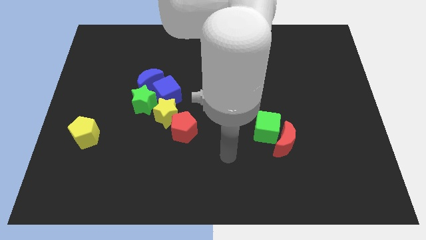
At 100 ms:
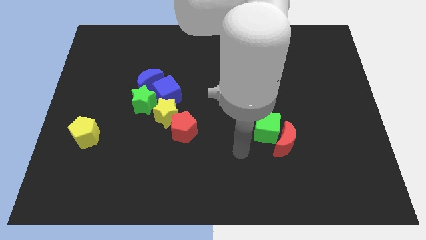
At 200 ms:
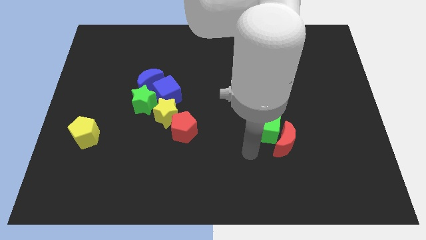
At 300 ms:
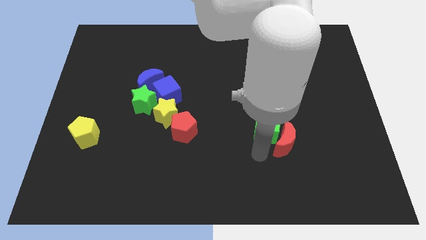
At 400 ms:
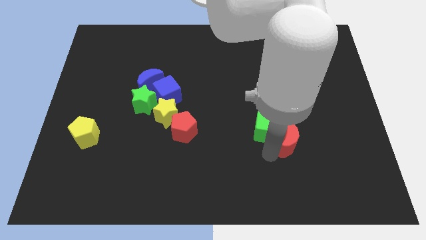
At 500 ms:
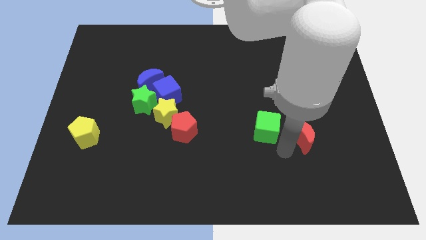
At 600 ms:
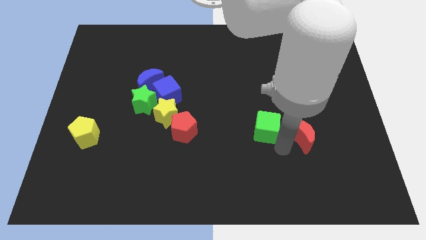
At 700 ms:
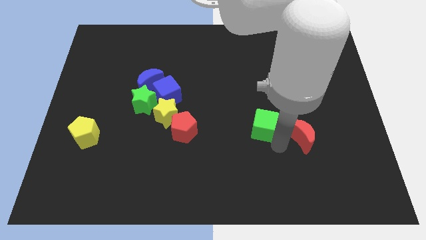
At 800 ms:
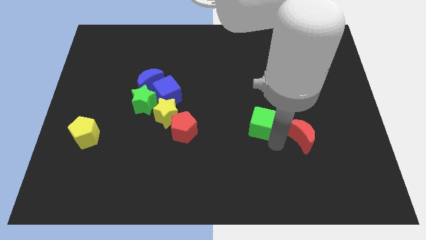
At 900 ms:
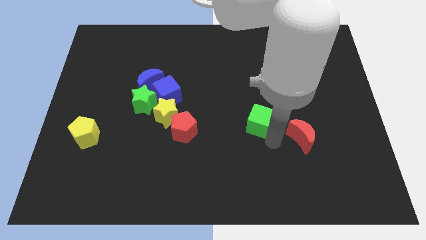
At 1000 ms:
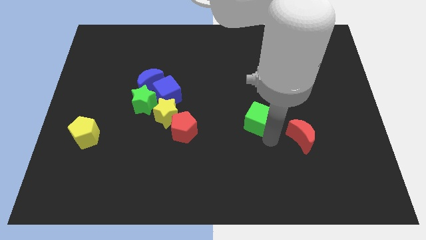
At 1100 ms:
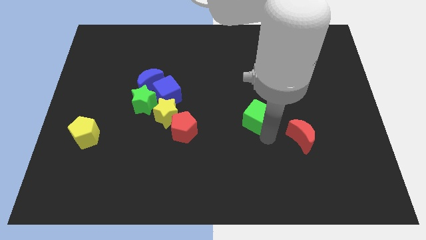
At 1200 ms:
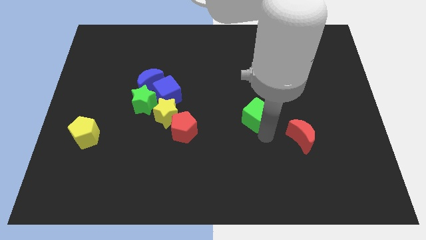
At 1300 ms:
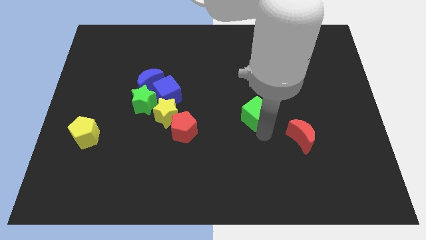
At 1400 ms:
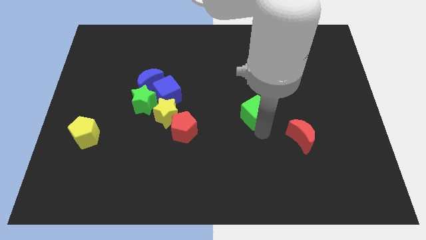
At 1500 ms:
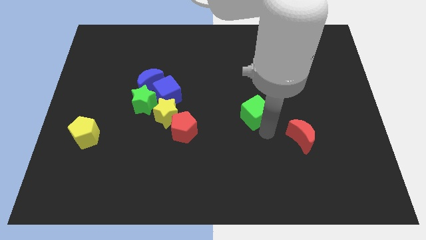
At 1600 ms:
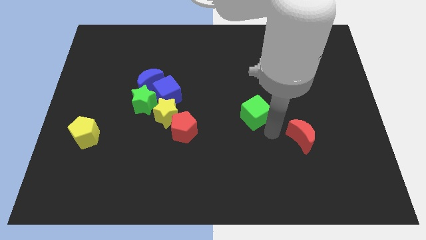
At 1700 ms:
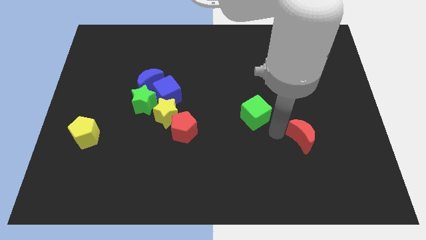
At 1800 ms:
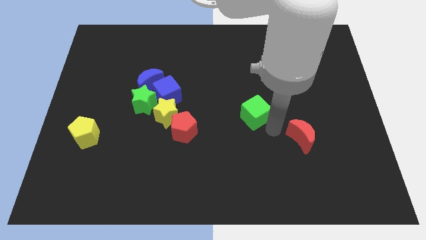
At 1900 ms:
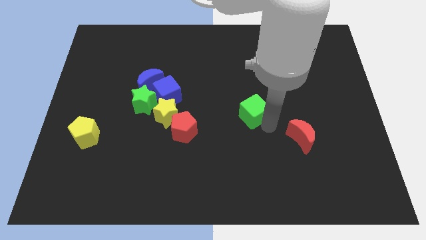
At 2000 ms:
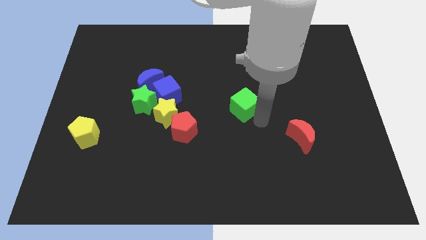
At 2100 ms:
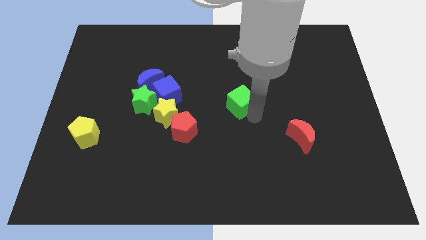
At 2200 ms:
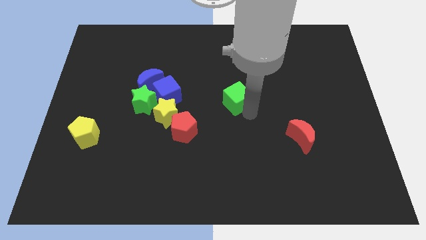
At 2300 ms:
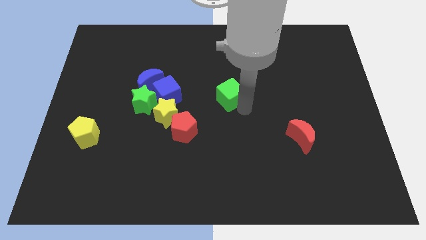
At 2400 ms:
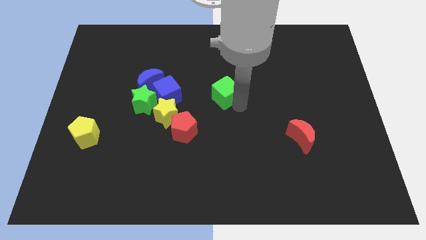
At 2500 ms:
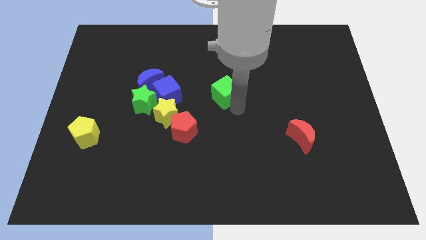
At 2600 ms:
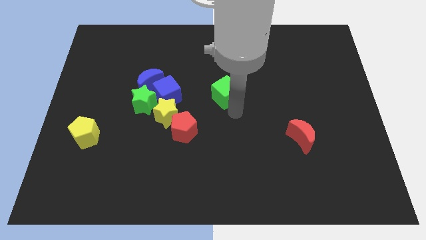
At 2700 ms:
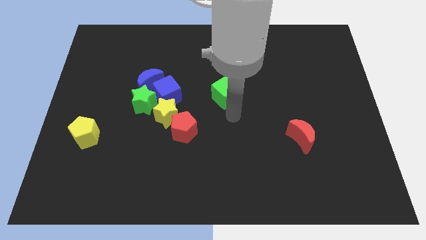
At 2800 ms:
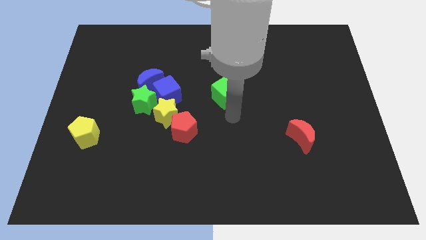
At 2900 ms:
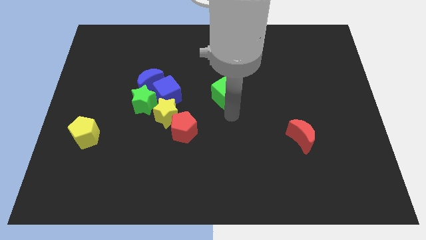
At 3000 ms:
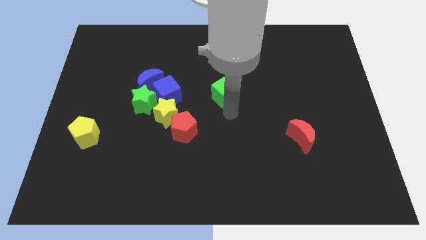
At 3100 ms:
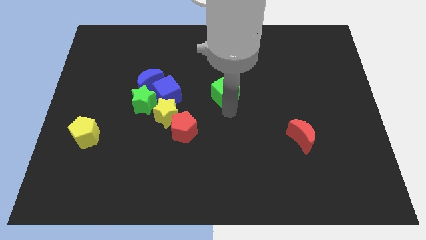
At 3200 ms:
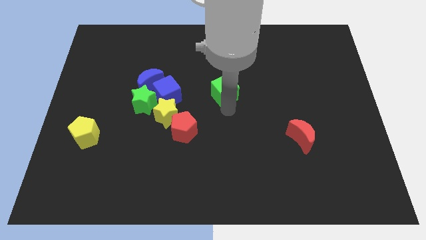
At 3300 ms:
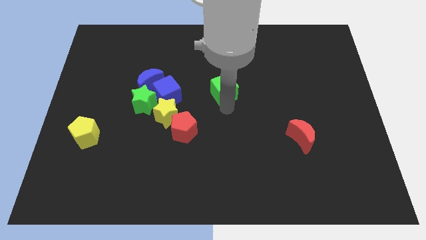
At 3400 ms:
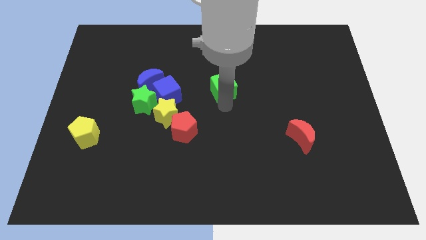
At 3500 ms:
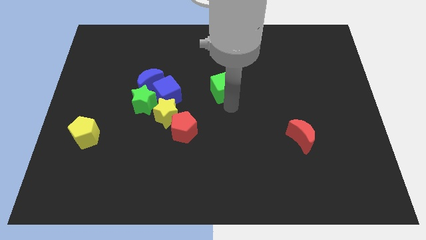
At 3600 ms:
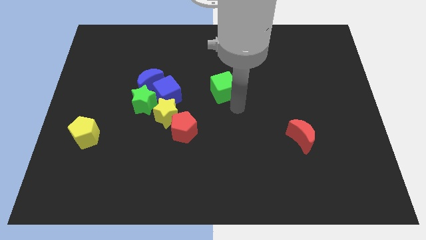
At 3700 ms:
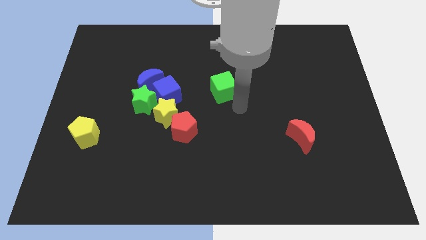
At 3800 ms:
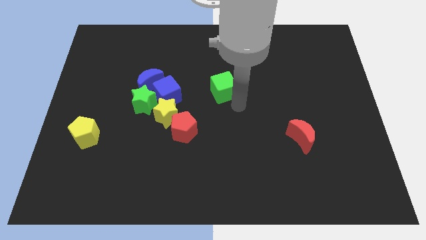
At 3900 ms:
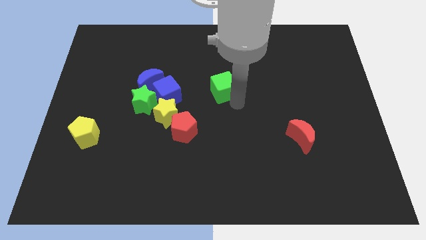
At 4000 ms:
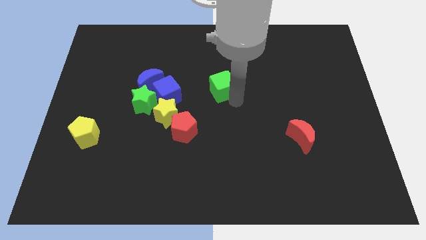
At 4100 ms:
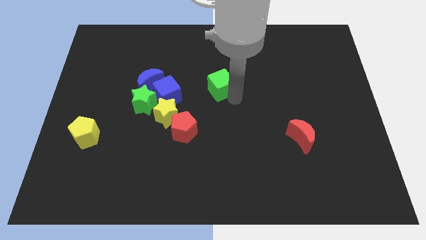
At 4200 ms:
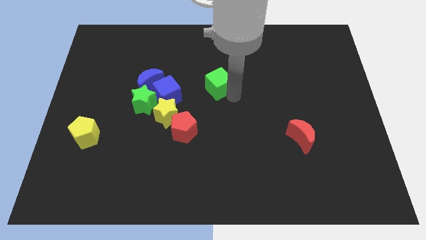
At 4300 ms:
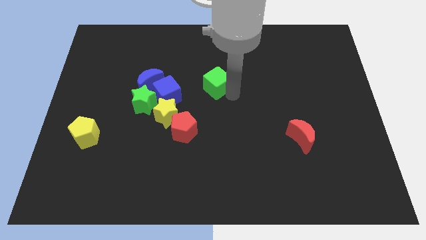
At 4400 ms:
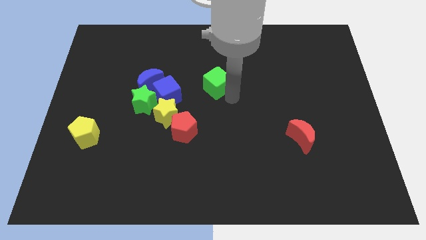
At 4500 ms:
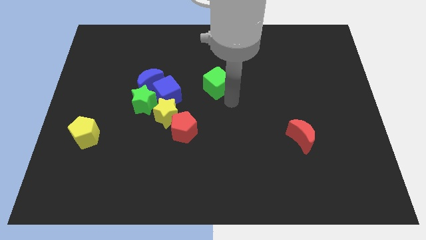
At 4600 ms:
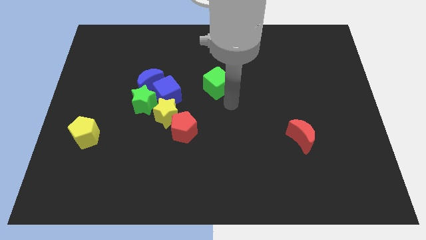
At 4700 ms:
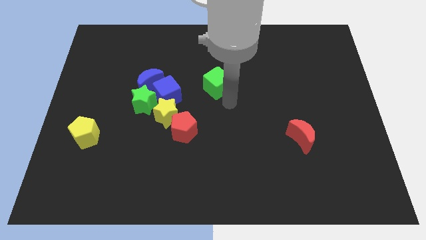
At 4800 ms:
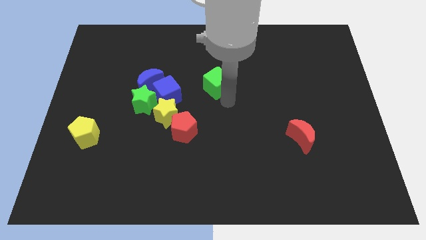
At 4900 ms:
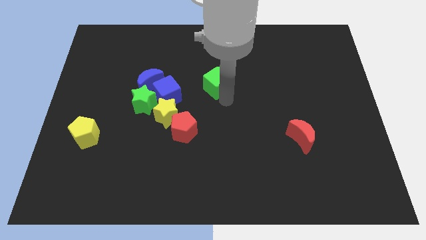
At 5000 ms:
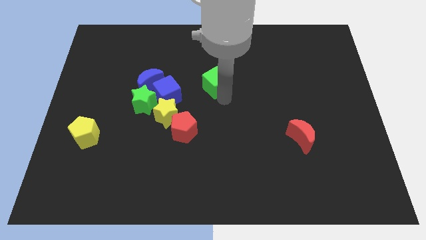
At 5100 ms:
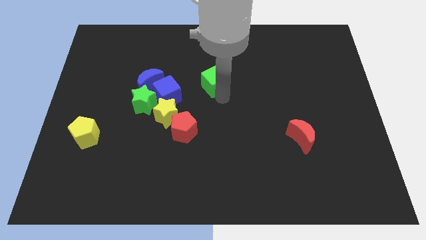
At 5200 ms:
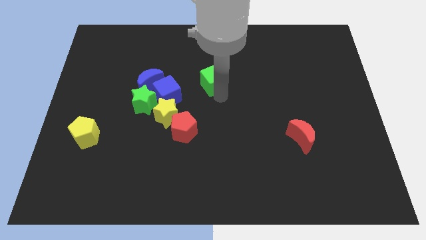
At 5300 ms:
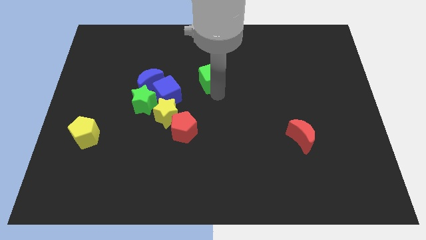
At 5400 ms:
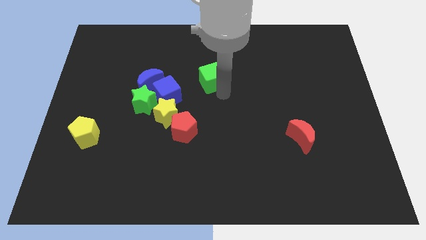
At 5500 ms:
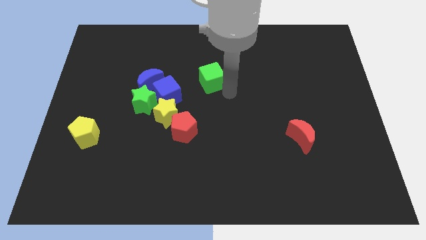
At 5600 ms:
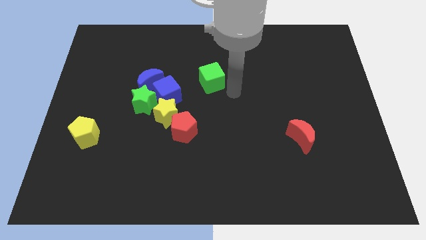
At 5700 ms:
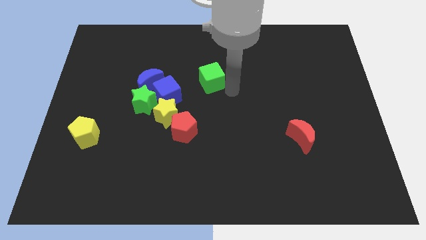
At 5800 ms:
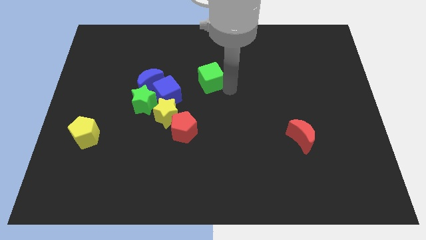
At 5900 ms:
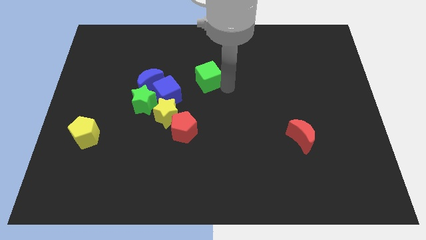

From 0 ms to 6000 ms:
slide the green cube up and left diagonally

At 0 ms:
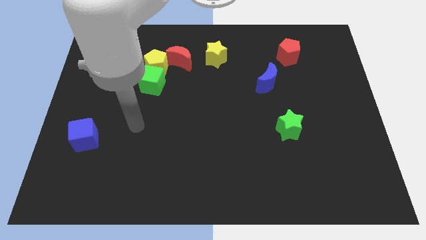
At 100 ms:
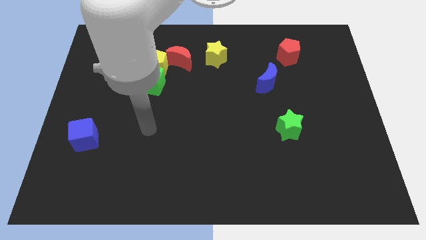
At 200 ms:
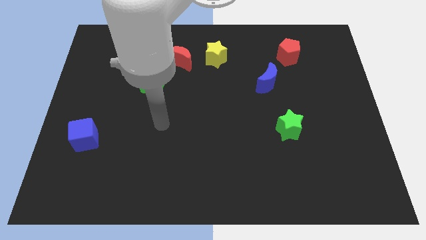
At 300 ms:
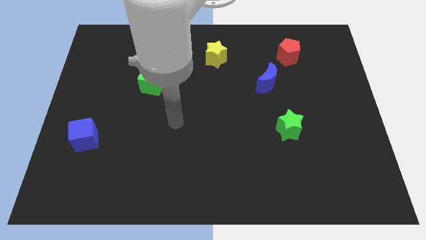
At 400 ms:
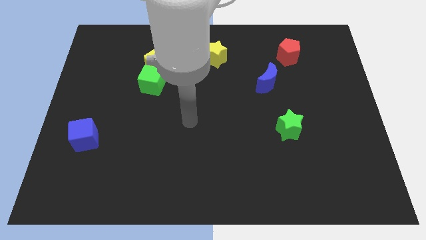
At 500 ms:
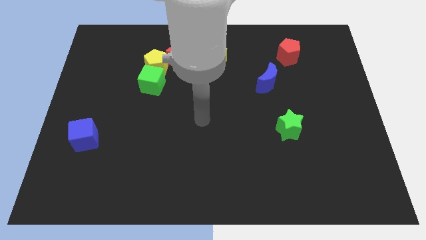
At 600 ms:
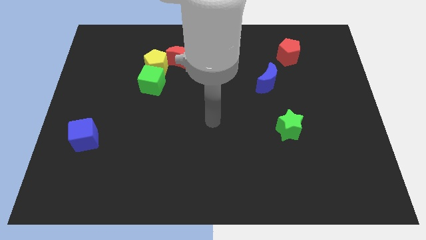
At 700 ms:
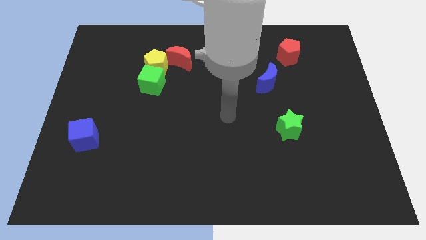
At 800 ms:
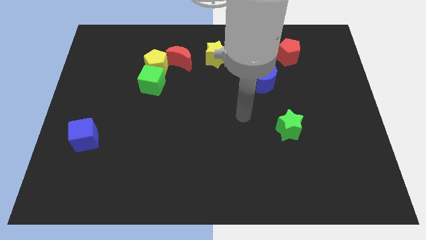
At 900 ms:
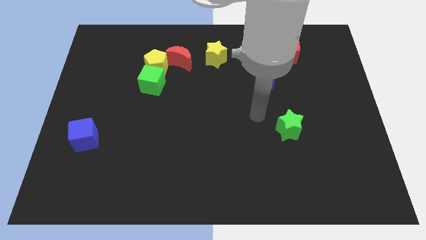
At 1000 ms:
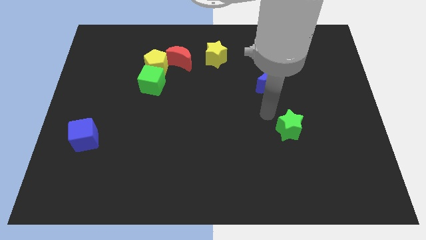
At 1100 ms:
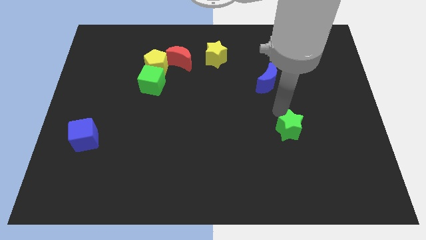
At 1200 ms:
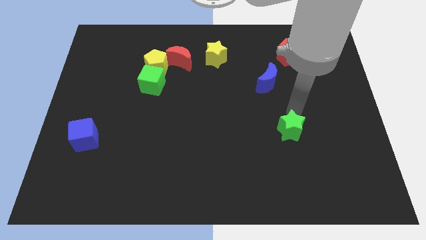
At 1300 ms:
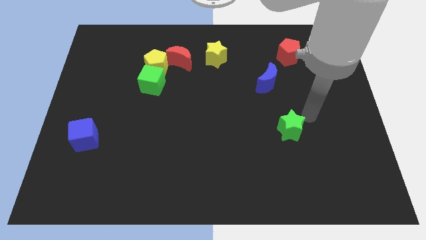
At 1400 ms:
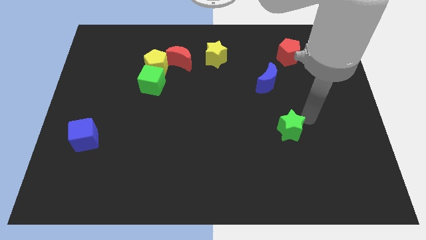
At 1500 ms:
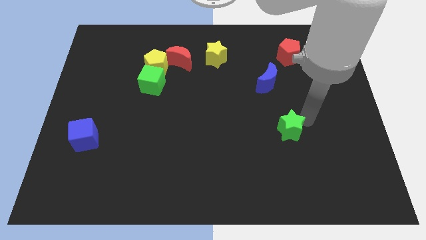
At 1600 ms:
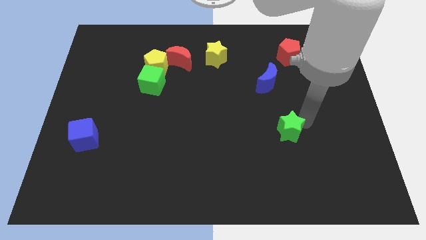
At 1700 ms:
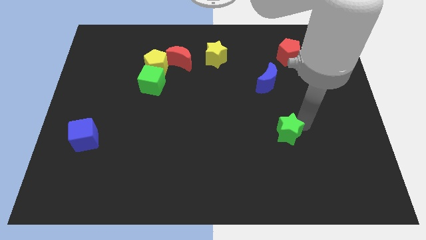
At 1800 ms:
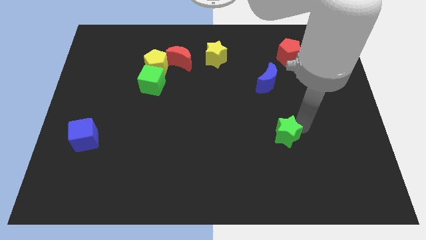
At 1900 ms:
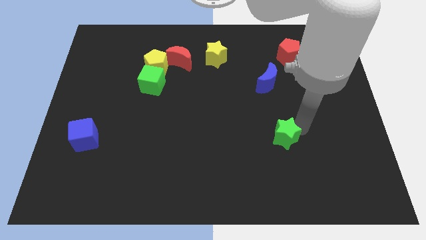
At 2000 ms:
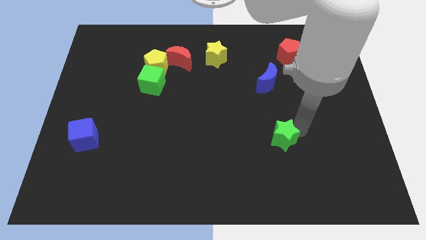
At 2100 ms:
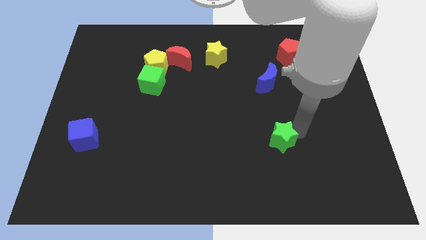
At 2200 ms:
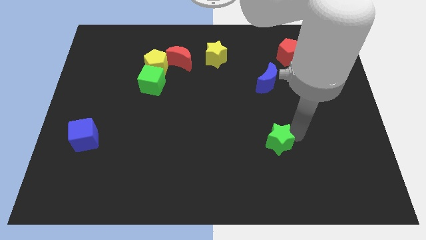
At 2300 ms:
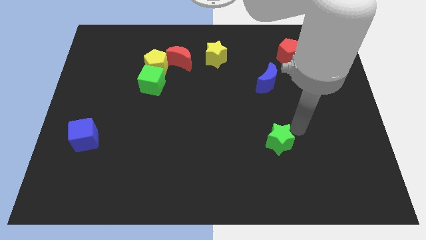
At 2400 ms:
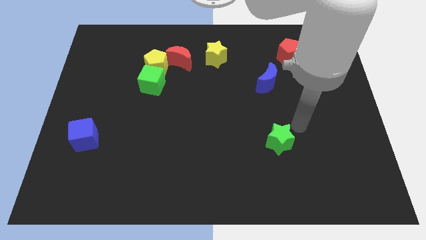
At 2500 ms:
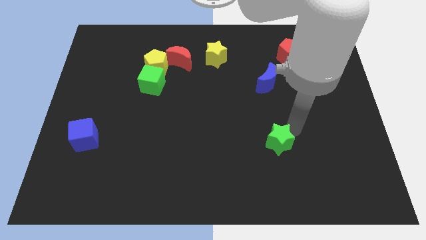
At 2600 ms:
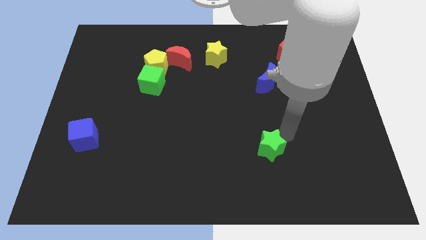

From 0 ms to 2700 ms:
move the green star a little diagonally down and to the left
